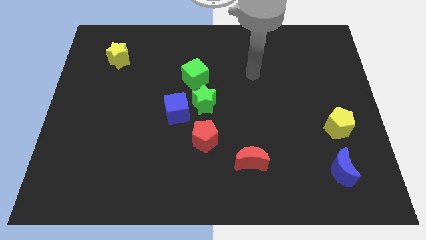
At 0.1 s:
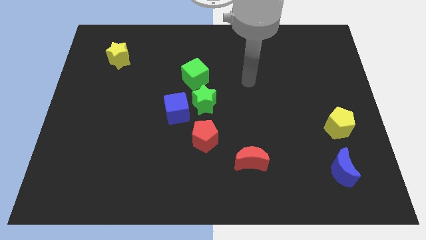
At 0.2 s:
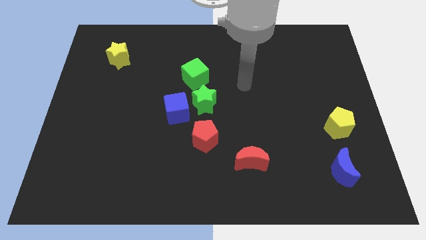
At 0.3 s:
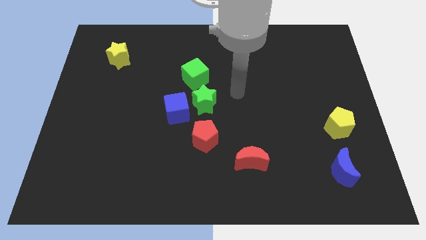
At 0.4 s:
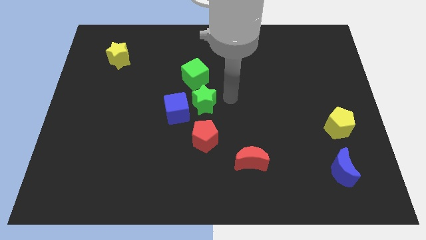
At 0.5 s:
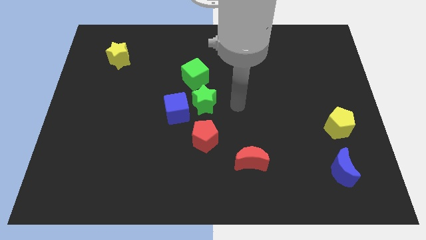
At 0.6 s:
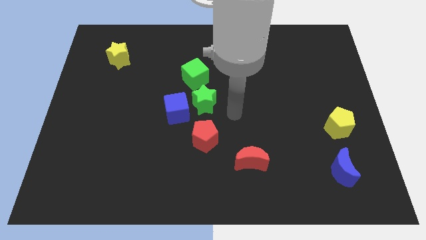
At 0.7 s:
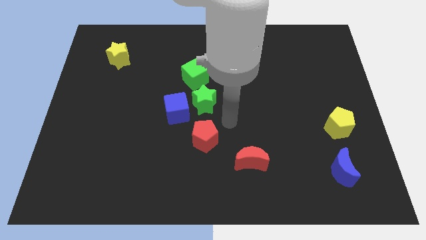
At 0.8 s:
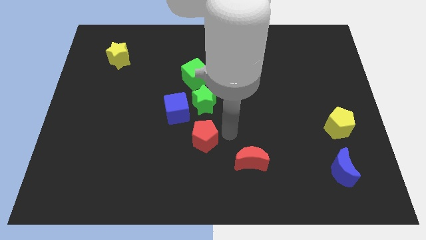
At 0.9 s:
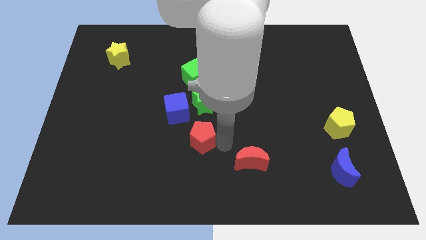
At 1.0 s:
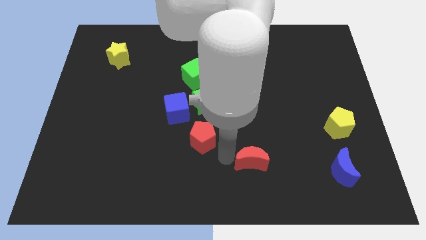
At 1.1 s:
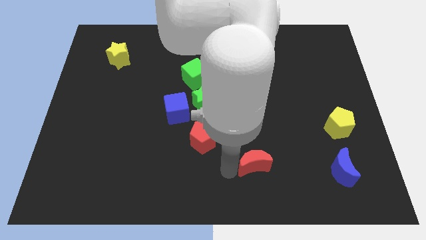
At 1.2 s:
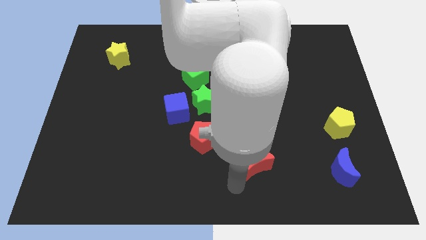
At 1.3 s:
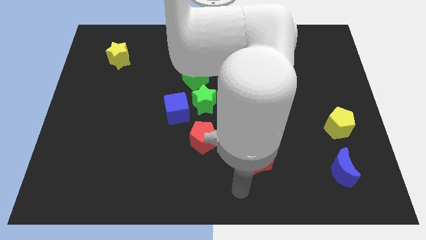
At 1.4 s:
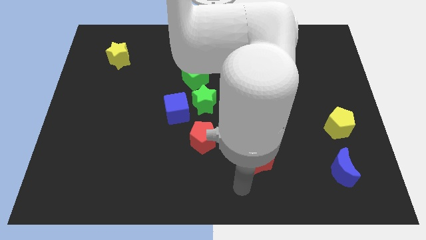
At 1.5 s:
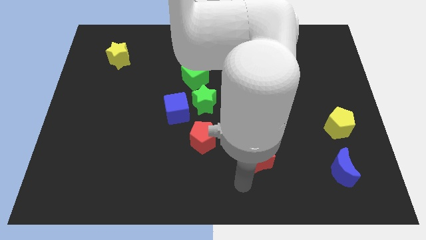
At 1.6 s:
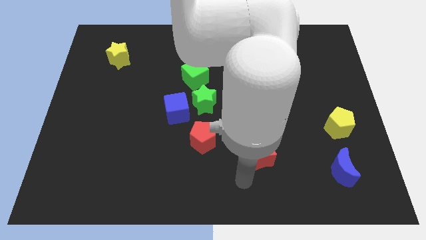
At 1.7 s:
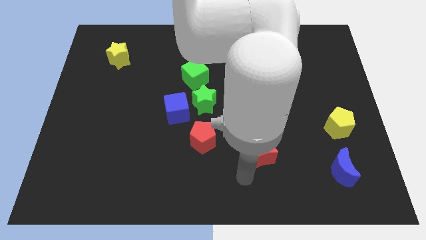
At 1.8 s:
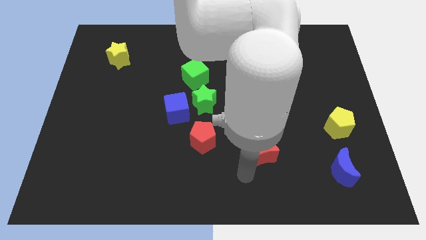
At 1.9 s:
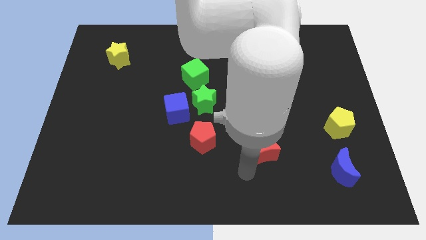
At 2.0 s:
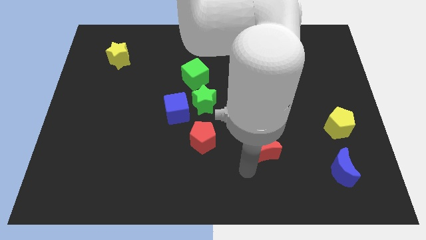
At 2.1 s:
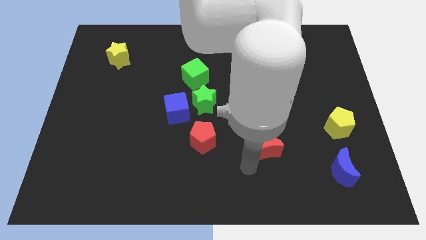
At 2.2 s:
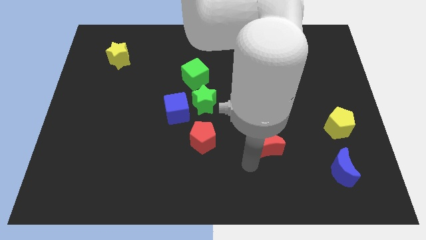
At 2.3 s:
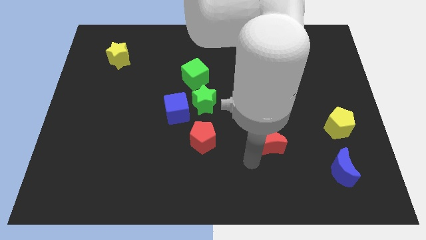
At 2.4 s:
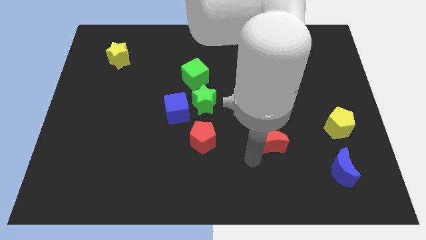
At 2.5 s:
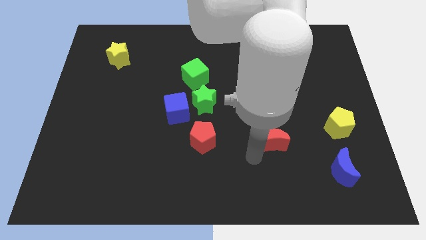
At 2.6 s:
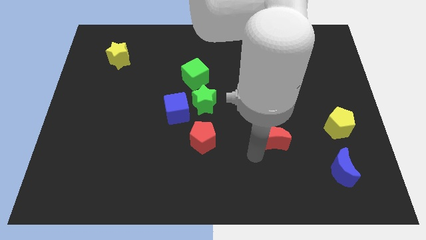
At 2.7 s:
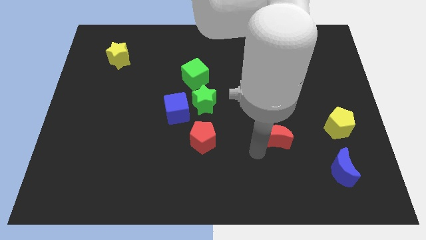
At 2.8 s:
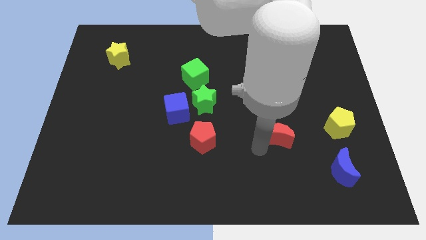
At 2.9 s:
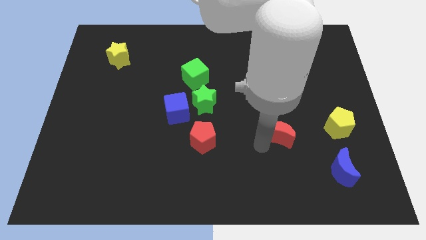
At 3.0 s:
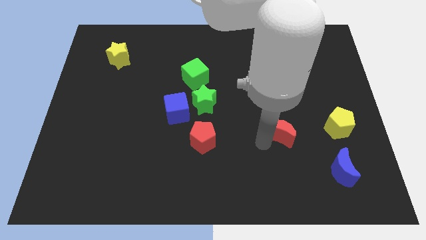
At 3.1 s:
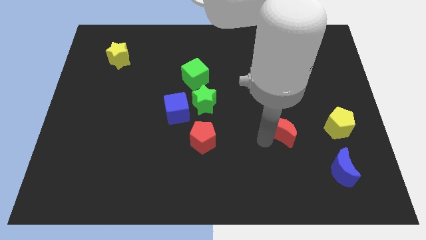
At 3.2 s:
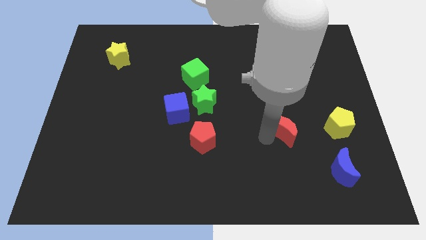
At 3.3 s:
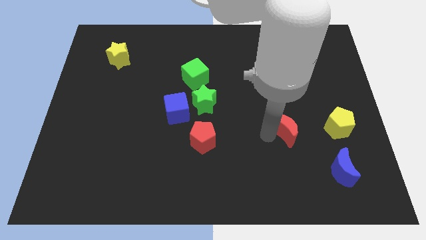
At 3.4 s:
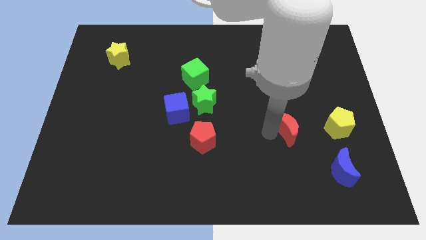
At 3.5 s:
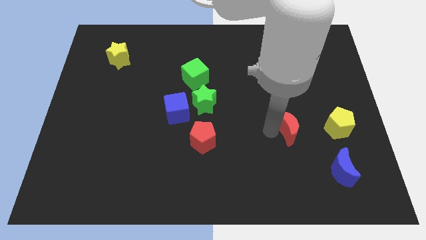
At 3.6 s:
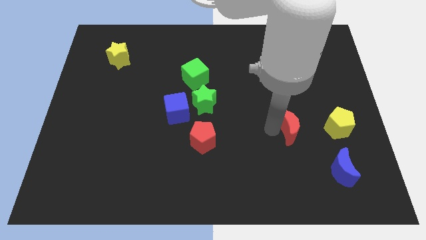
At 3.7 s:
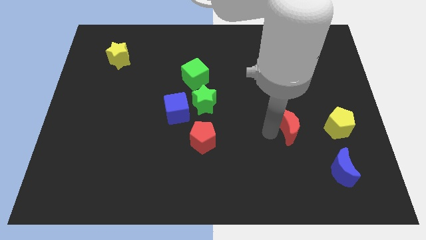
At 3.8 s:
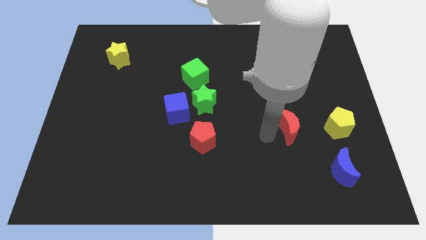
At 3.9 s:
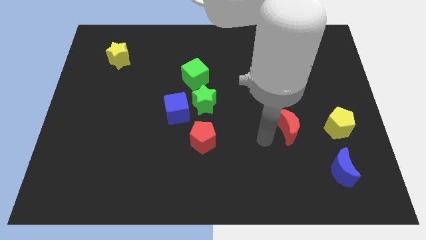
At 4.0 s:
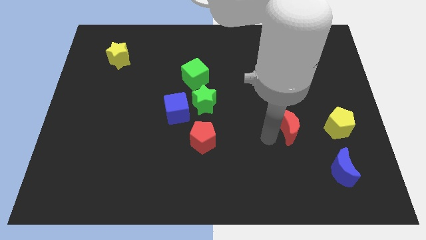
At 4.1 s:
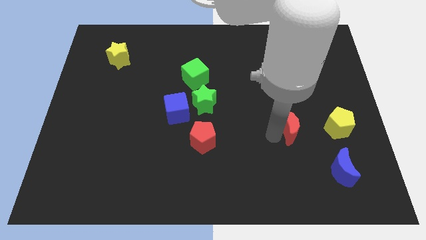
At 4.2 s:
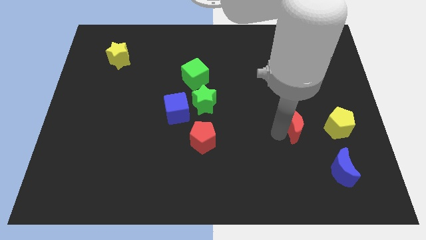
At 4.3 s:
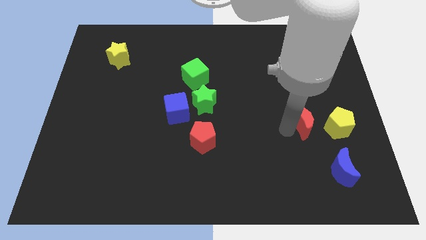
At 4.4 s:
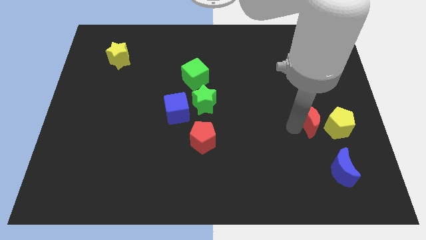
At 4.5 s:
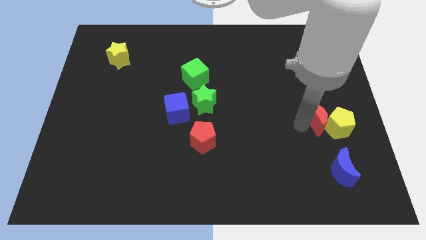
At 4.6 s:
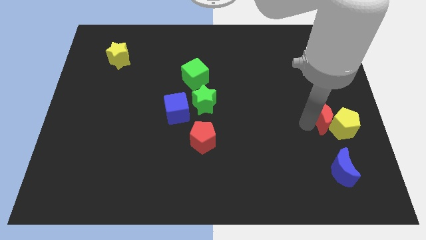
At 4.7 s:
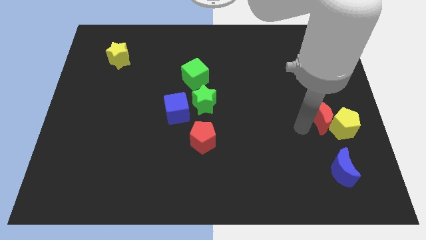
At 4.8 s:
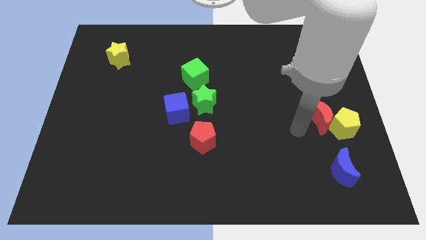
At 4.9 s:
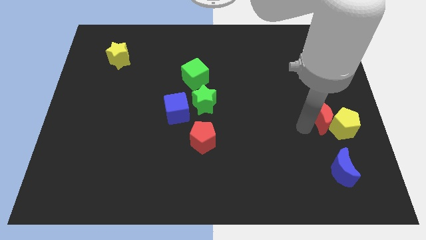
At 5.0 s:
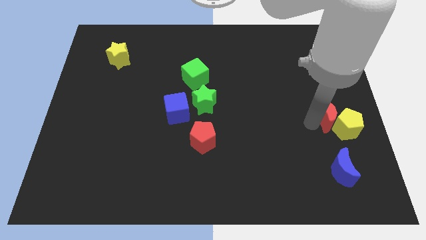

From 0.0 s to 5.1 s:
put the red moon to the center right
